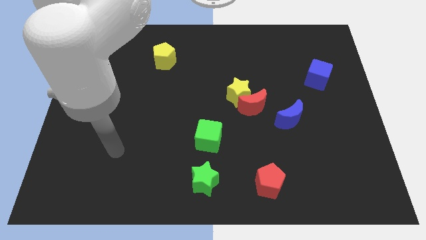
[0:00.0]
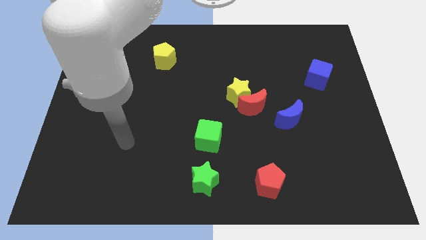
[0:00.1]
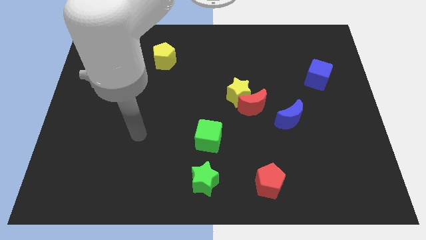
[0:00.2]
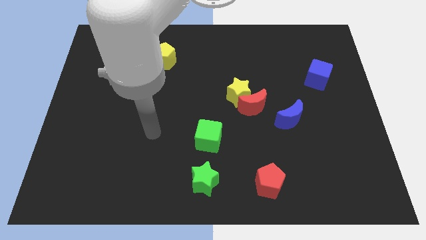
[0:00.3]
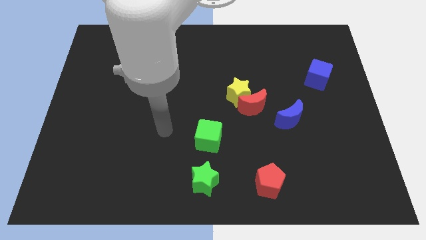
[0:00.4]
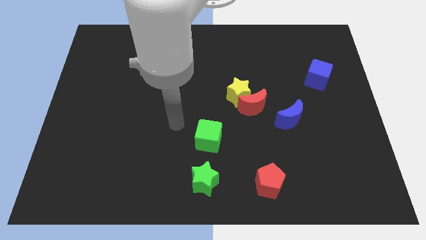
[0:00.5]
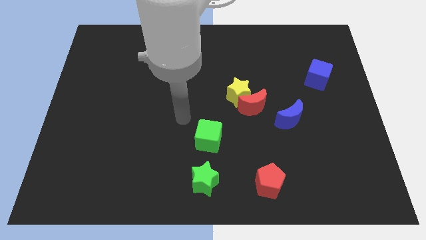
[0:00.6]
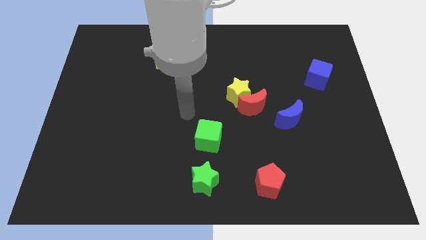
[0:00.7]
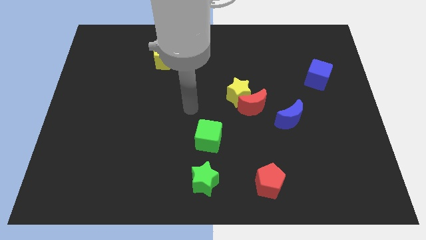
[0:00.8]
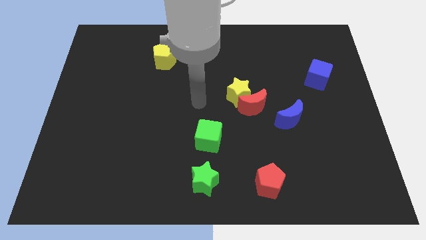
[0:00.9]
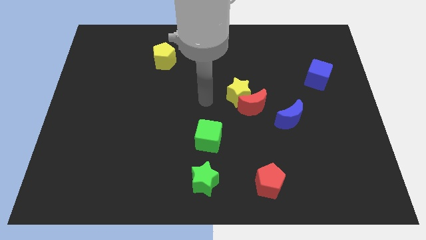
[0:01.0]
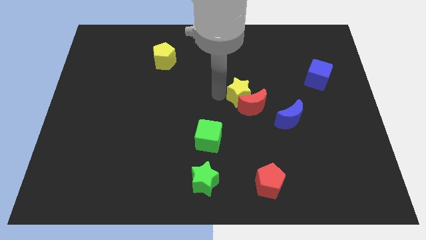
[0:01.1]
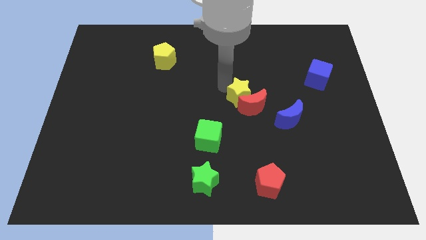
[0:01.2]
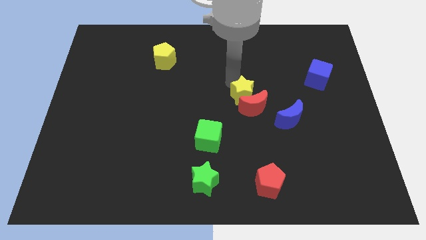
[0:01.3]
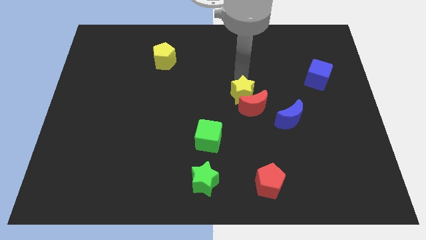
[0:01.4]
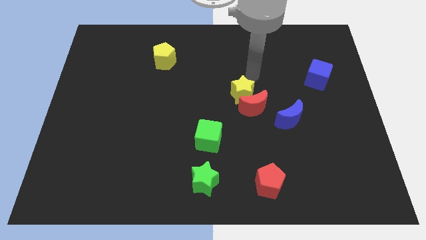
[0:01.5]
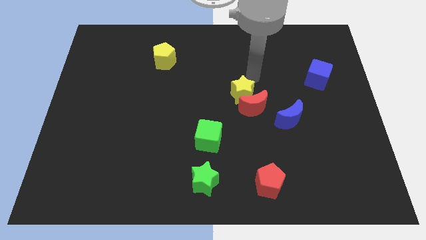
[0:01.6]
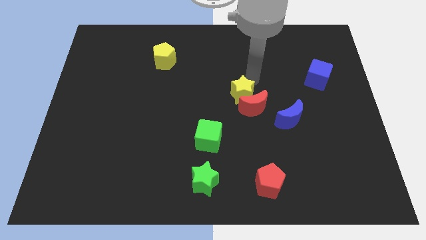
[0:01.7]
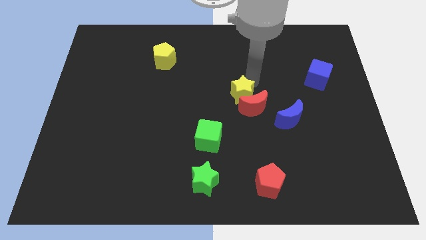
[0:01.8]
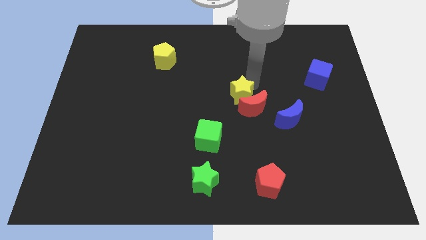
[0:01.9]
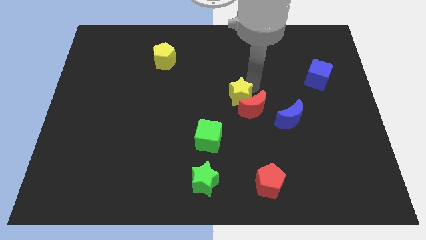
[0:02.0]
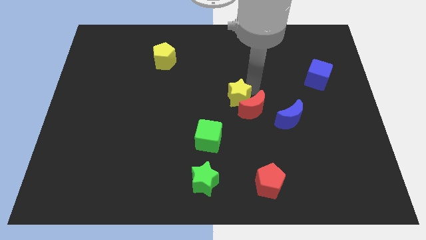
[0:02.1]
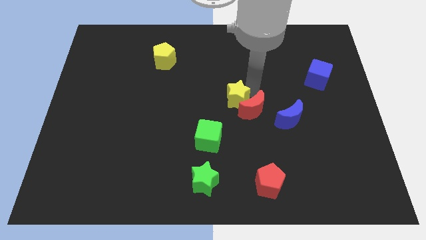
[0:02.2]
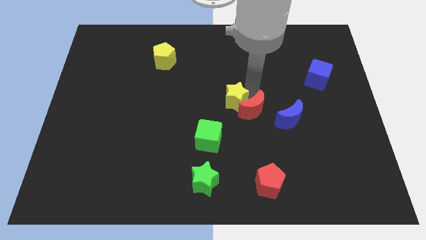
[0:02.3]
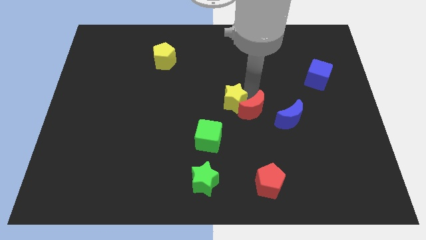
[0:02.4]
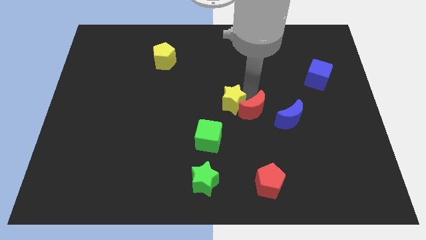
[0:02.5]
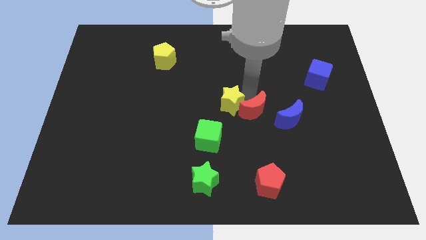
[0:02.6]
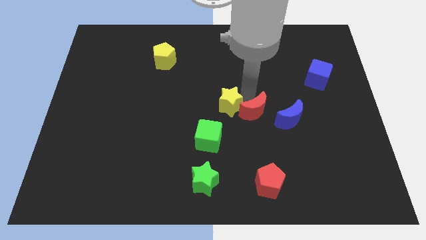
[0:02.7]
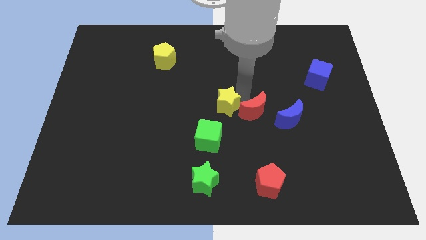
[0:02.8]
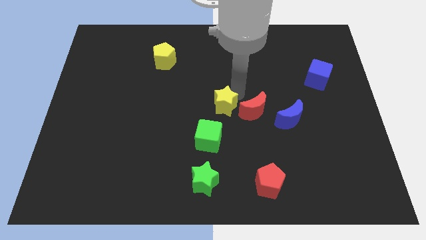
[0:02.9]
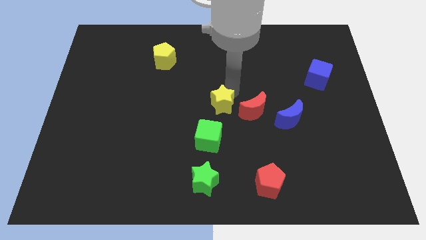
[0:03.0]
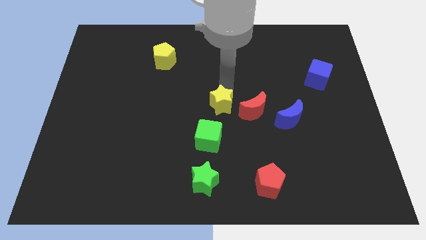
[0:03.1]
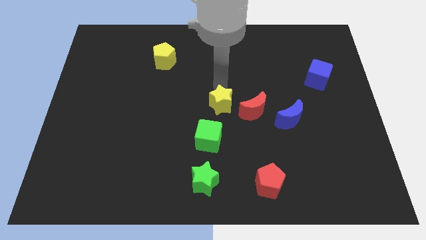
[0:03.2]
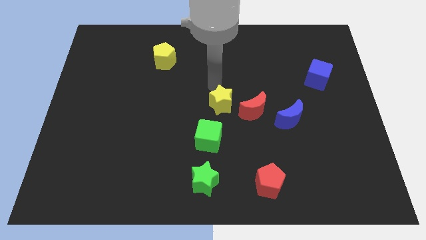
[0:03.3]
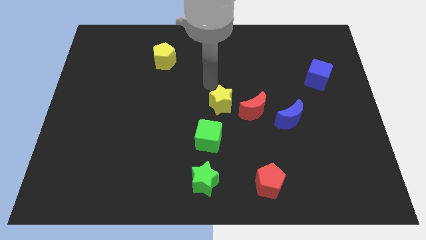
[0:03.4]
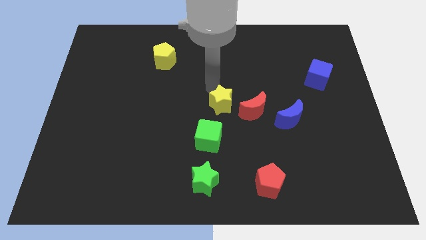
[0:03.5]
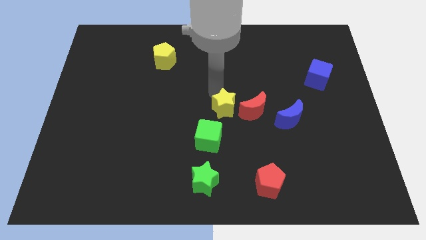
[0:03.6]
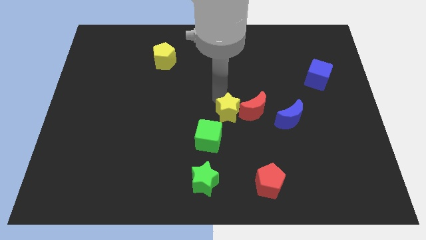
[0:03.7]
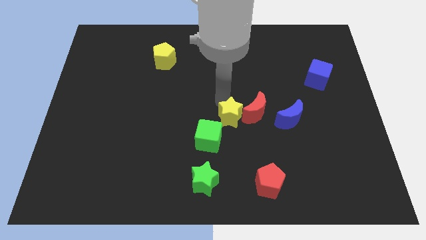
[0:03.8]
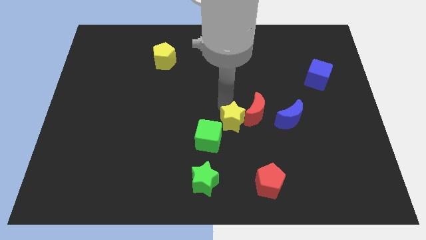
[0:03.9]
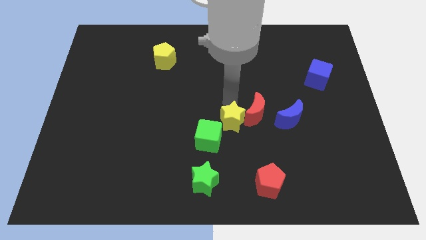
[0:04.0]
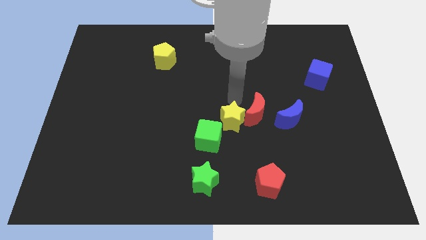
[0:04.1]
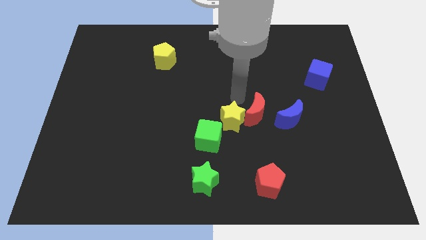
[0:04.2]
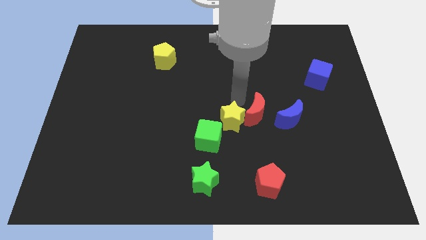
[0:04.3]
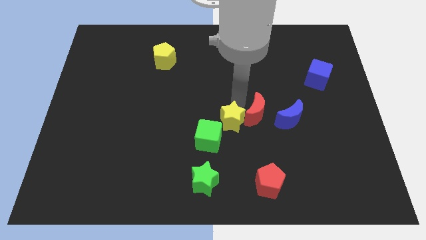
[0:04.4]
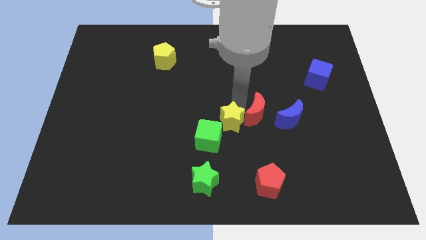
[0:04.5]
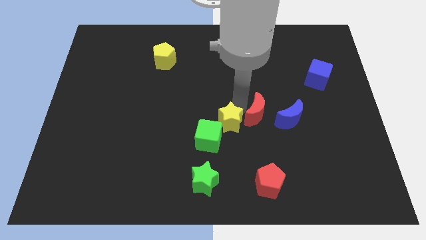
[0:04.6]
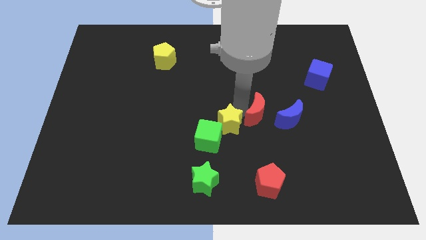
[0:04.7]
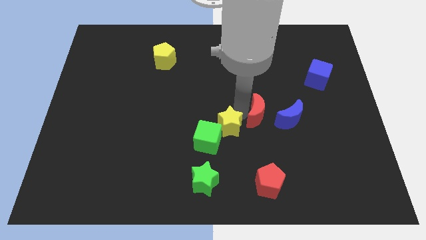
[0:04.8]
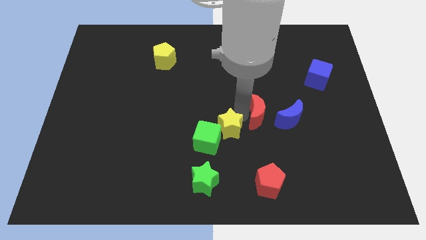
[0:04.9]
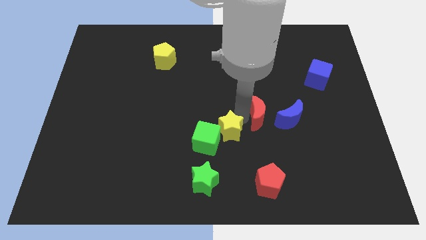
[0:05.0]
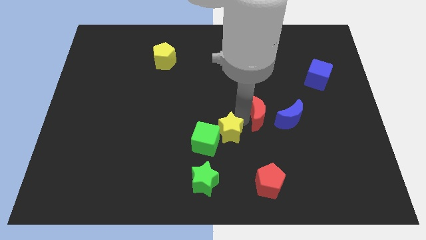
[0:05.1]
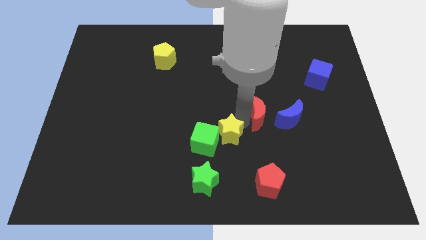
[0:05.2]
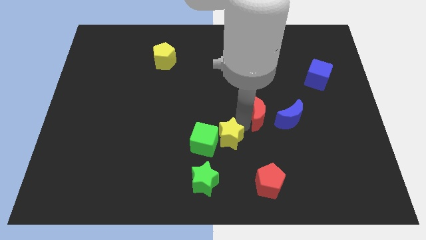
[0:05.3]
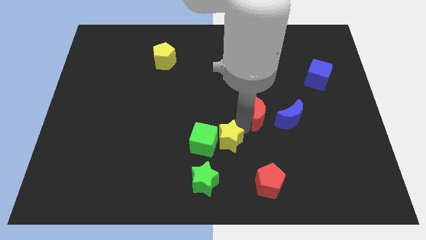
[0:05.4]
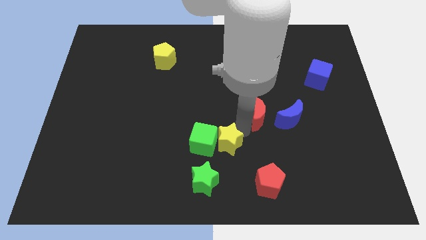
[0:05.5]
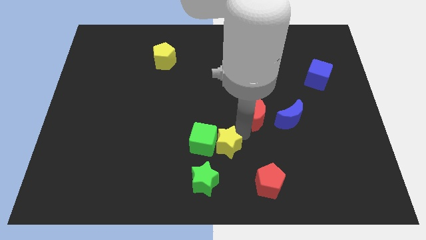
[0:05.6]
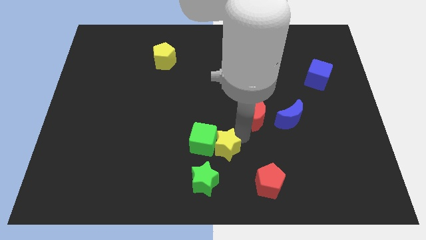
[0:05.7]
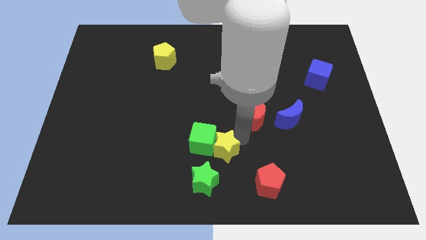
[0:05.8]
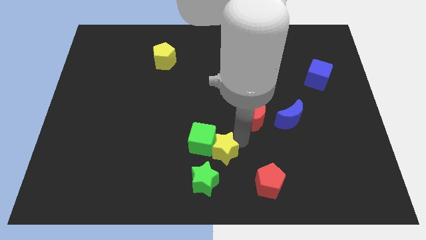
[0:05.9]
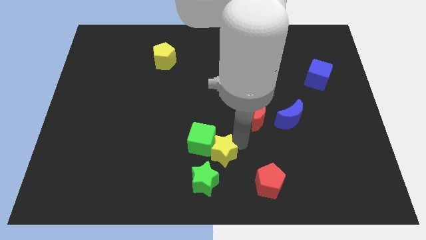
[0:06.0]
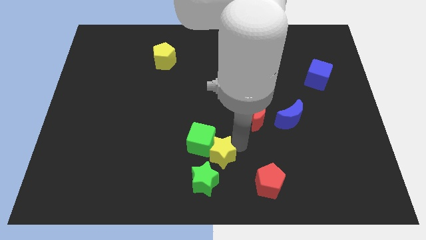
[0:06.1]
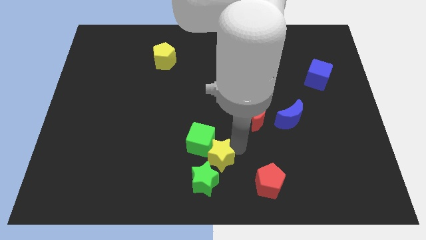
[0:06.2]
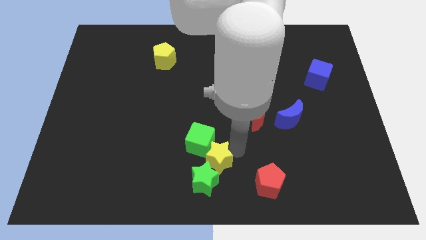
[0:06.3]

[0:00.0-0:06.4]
put the yellow star next to the green star

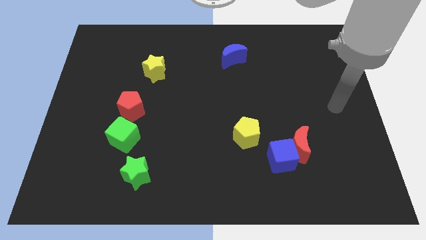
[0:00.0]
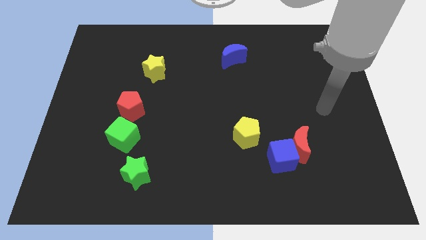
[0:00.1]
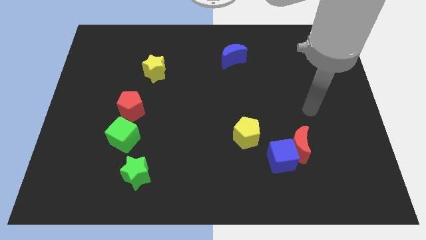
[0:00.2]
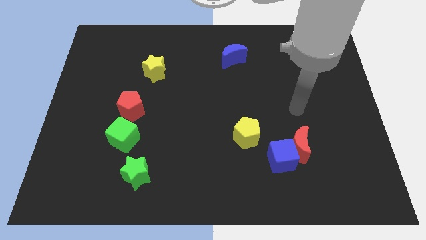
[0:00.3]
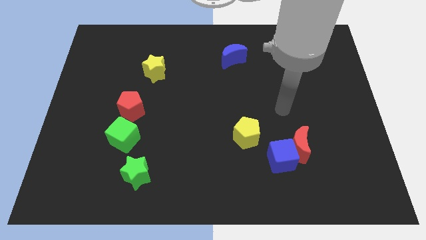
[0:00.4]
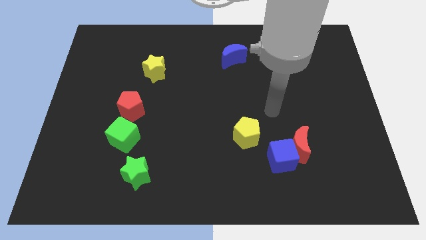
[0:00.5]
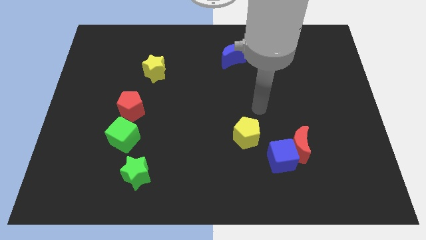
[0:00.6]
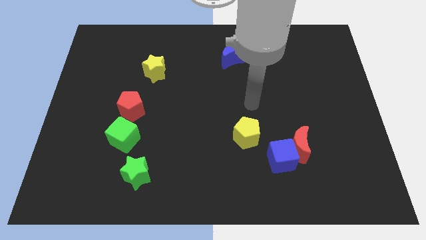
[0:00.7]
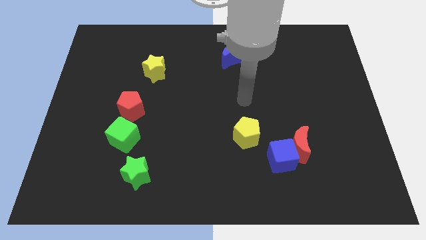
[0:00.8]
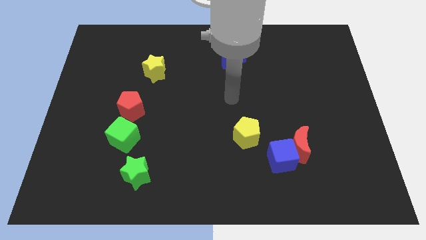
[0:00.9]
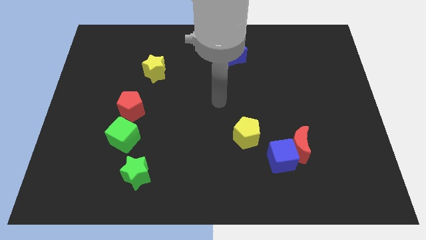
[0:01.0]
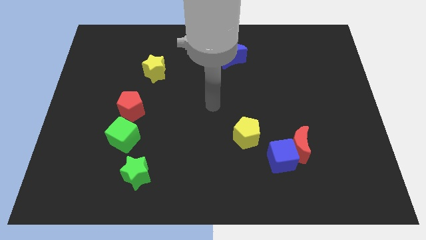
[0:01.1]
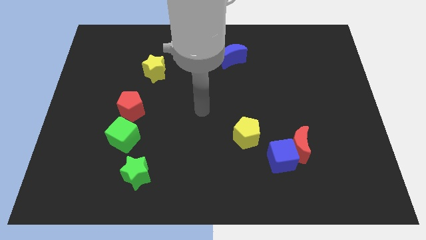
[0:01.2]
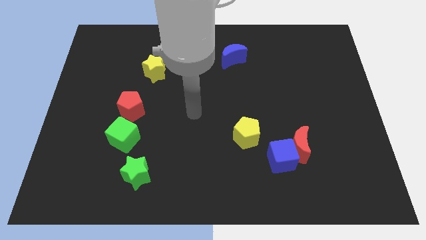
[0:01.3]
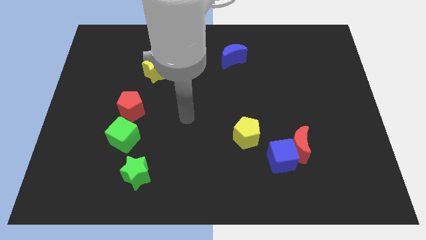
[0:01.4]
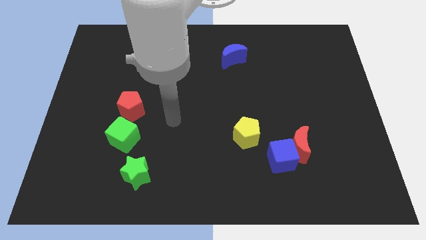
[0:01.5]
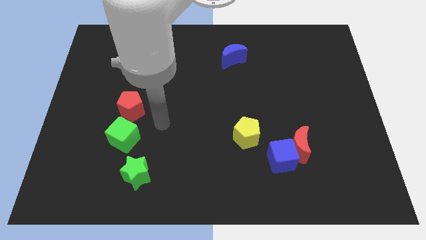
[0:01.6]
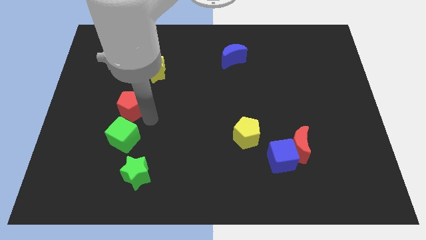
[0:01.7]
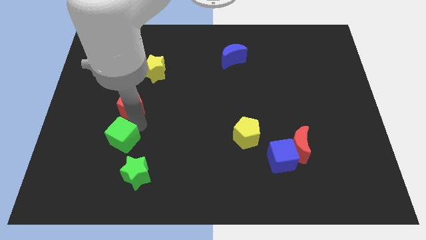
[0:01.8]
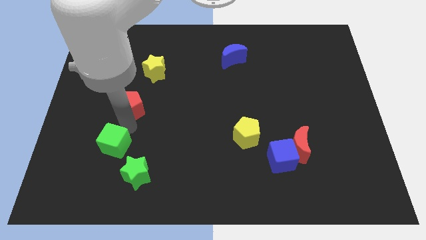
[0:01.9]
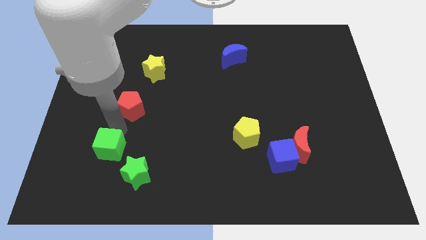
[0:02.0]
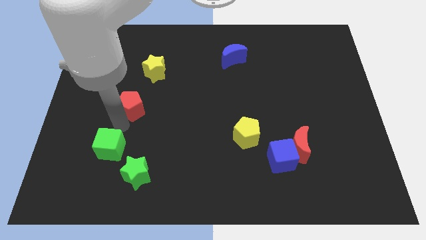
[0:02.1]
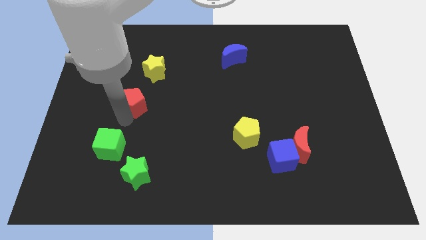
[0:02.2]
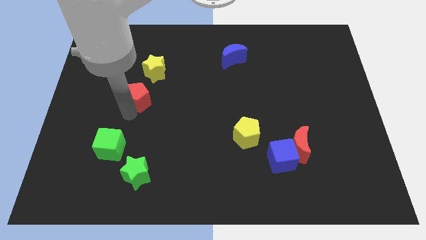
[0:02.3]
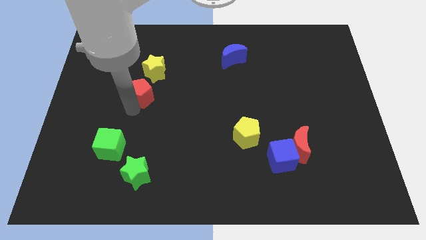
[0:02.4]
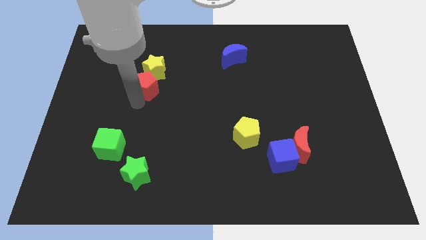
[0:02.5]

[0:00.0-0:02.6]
move the red pentagon to the yellow star
